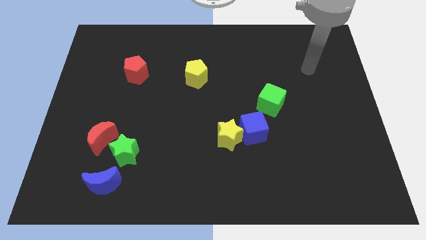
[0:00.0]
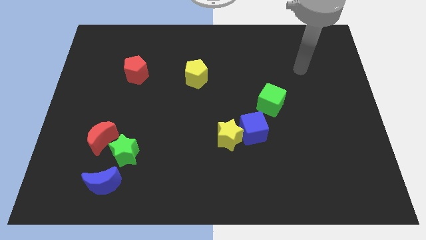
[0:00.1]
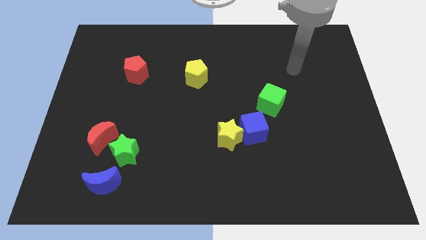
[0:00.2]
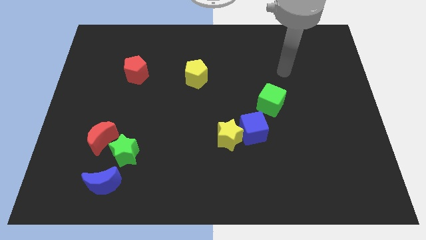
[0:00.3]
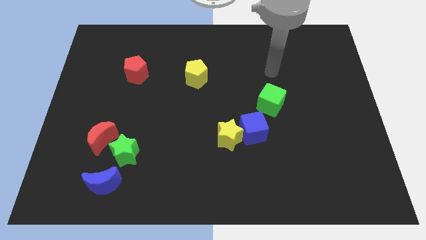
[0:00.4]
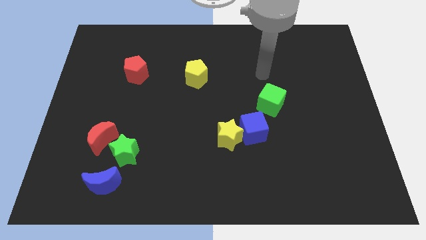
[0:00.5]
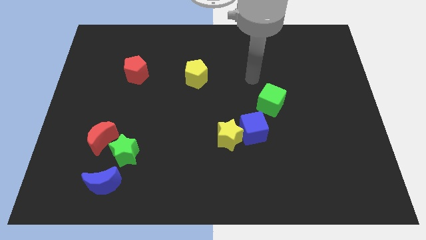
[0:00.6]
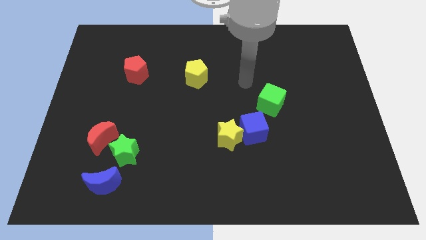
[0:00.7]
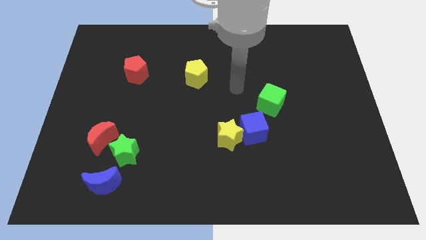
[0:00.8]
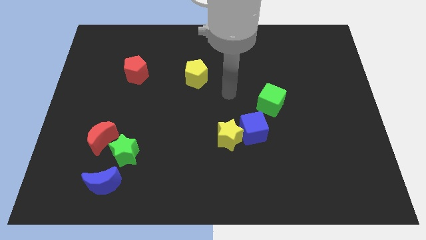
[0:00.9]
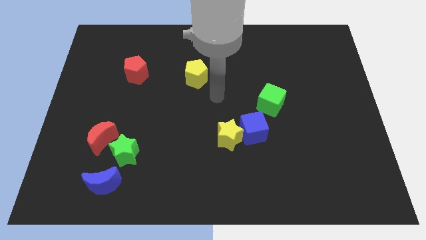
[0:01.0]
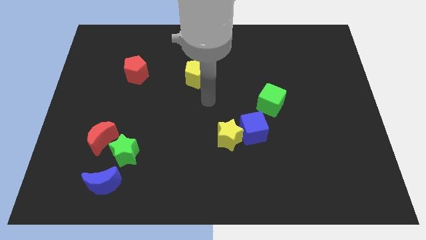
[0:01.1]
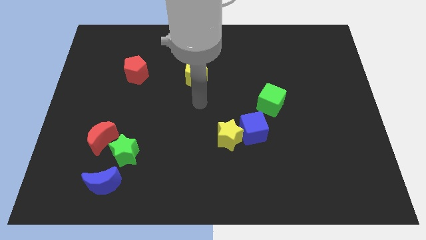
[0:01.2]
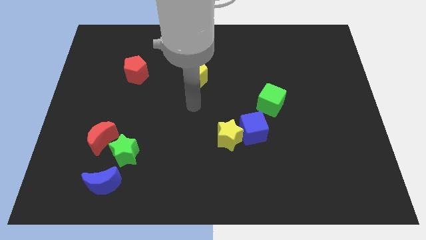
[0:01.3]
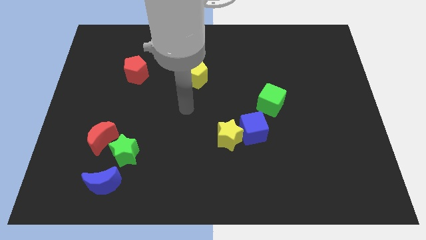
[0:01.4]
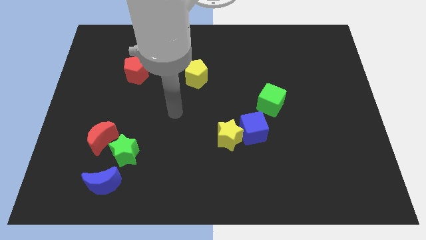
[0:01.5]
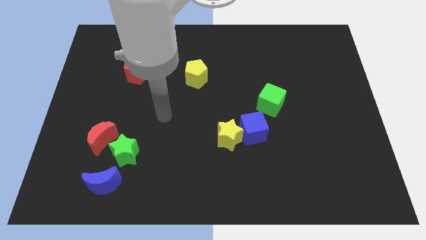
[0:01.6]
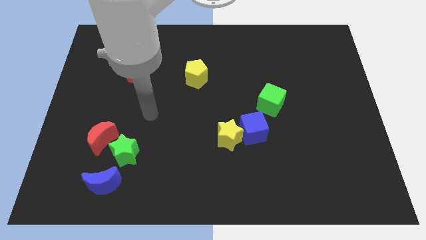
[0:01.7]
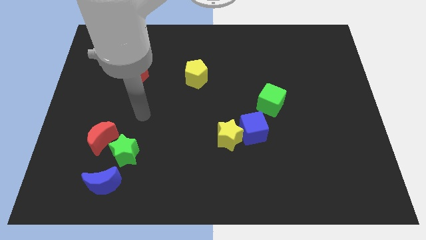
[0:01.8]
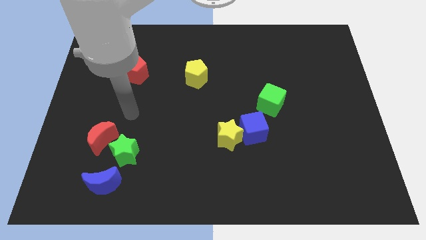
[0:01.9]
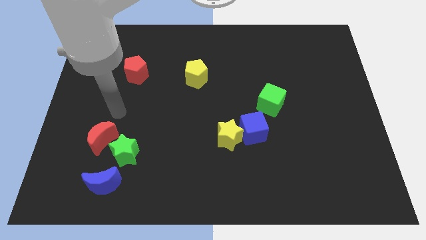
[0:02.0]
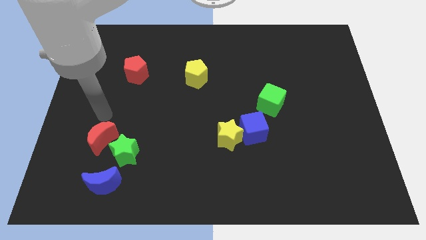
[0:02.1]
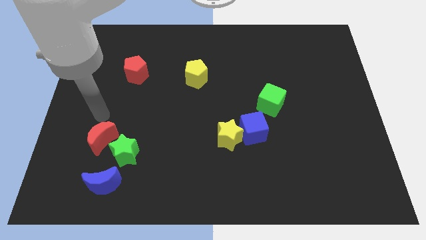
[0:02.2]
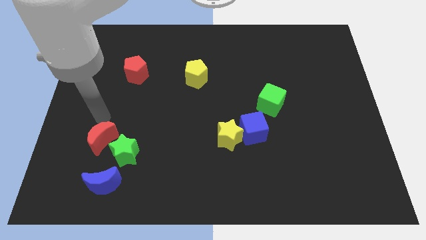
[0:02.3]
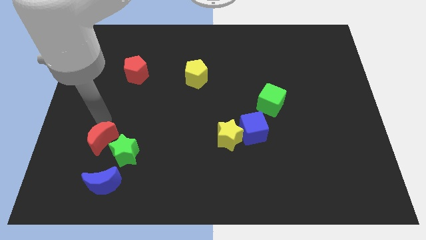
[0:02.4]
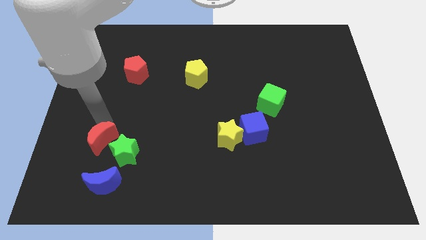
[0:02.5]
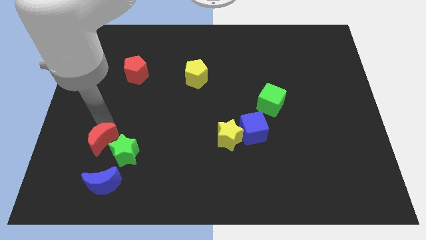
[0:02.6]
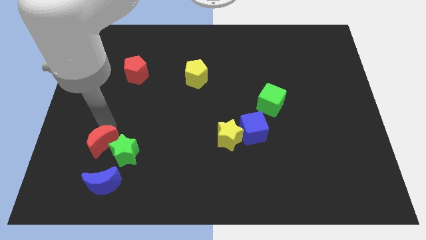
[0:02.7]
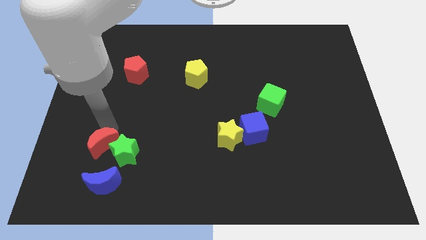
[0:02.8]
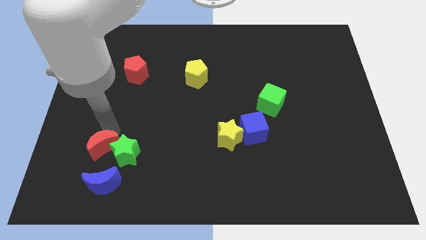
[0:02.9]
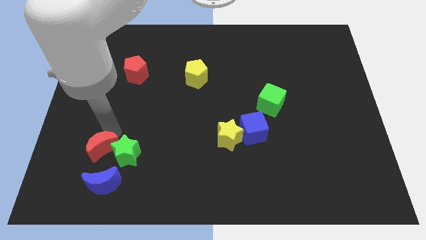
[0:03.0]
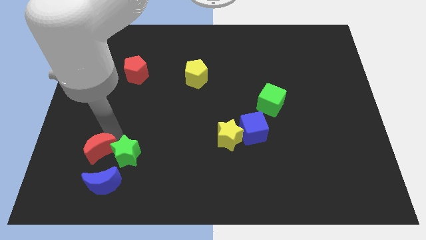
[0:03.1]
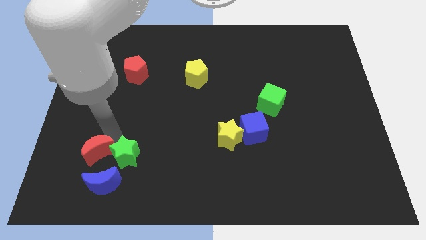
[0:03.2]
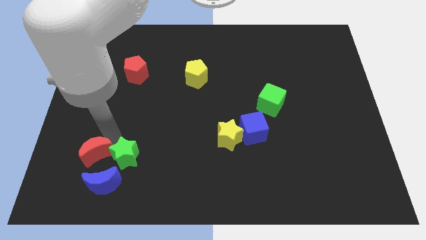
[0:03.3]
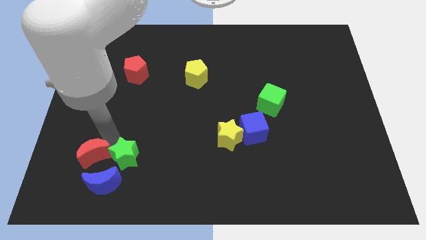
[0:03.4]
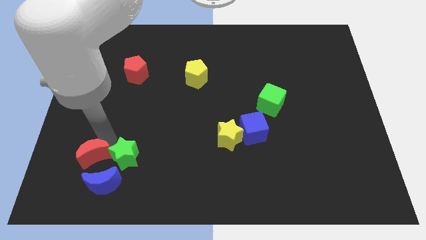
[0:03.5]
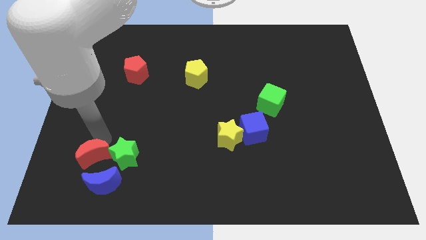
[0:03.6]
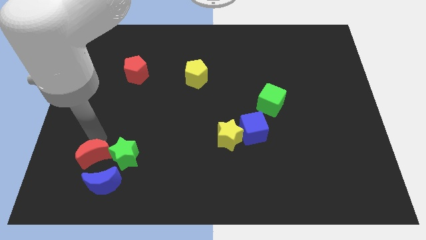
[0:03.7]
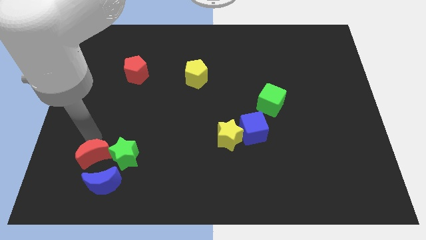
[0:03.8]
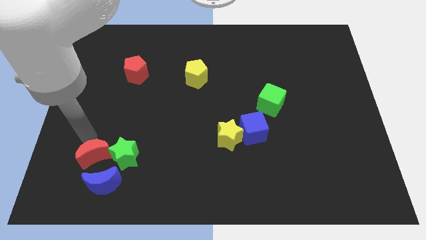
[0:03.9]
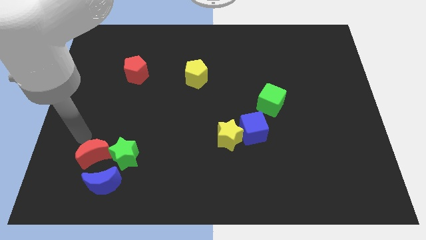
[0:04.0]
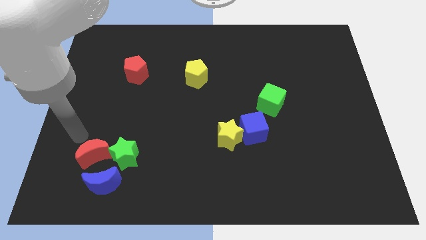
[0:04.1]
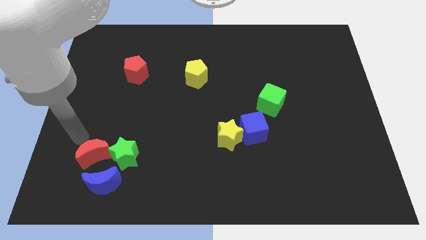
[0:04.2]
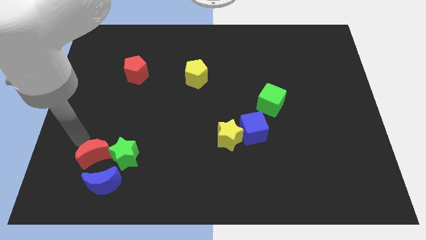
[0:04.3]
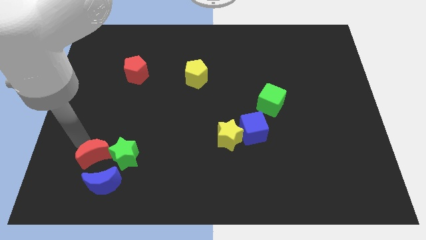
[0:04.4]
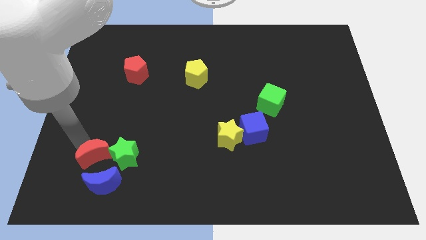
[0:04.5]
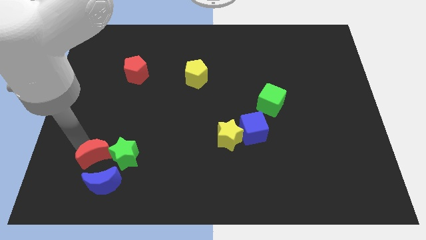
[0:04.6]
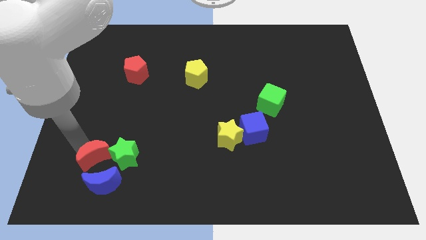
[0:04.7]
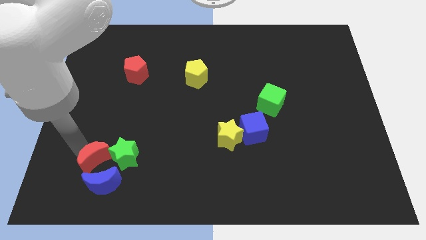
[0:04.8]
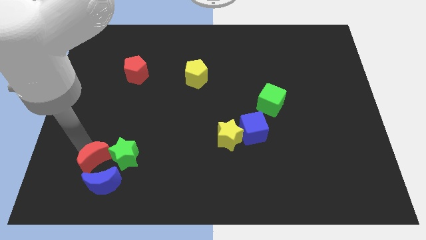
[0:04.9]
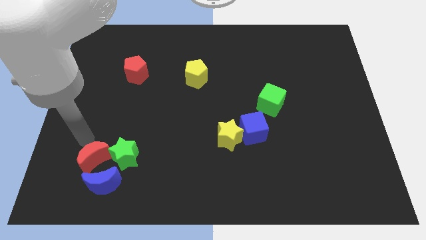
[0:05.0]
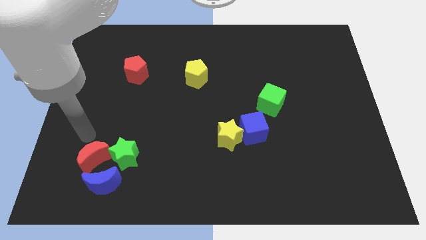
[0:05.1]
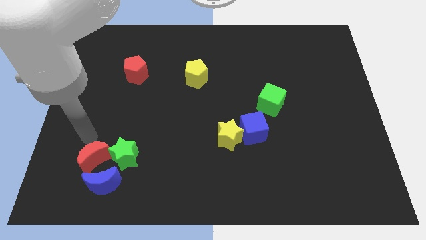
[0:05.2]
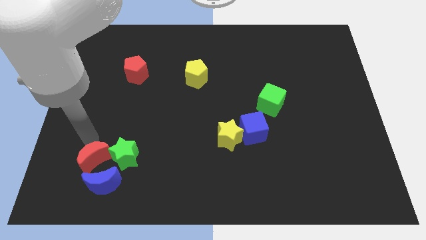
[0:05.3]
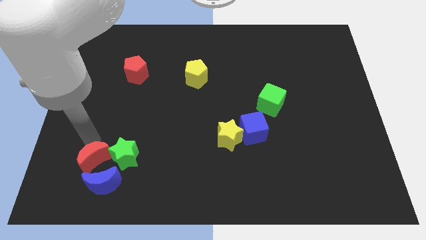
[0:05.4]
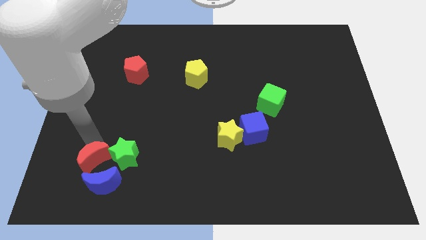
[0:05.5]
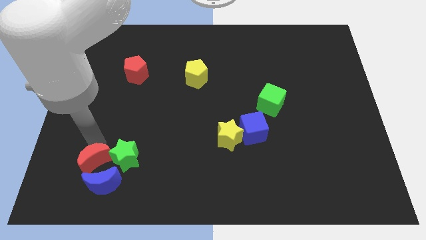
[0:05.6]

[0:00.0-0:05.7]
move the red moon towards the blue moon

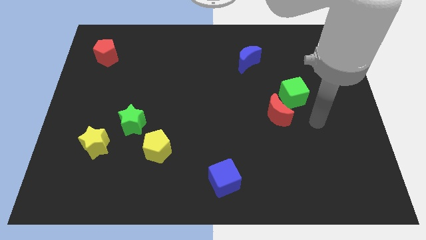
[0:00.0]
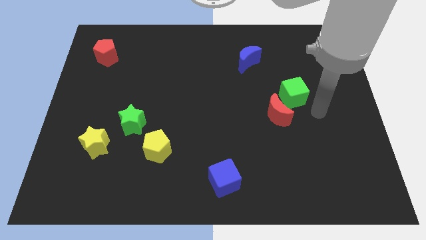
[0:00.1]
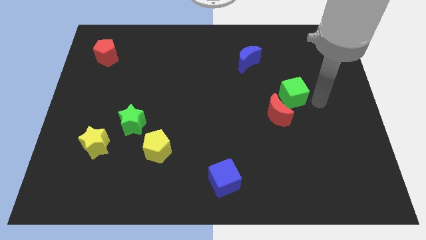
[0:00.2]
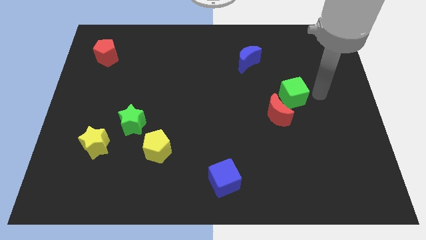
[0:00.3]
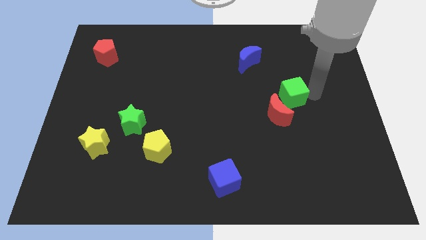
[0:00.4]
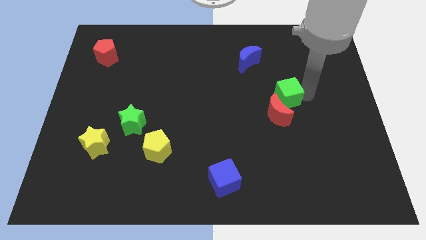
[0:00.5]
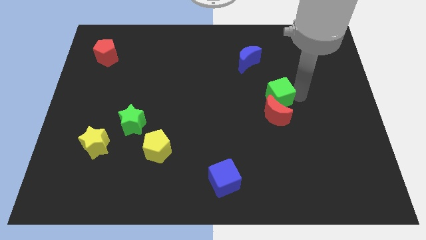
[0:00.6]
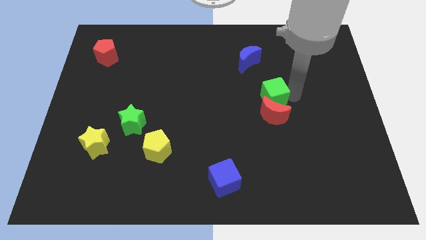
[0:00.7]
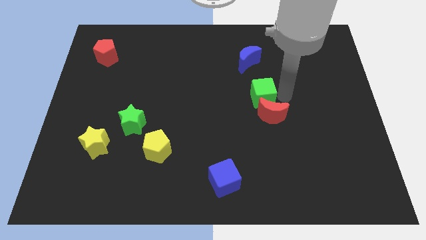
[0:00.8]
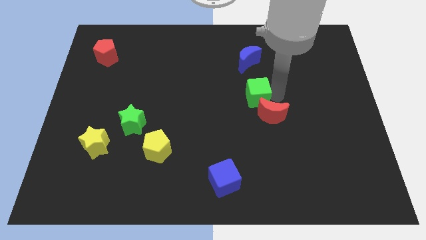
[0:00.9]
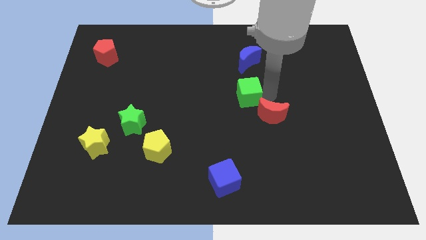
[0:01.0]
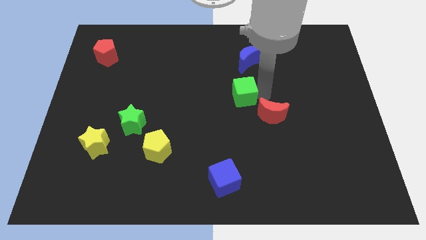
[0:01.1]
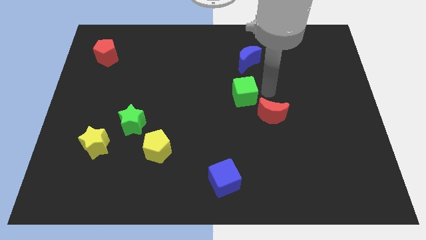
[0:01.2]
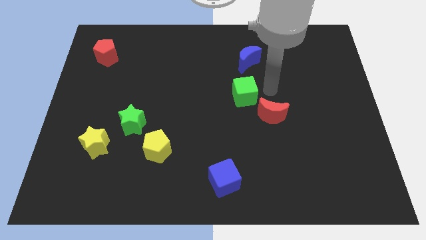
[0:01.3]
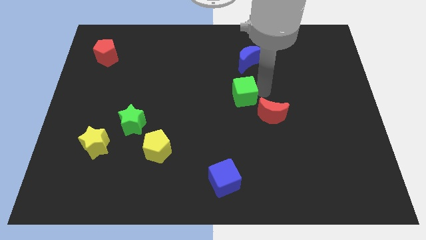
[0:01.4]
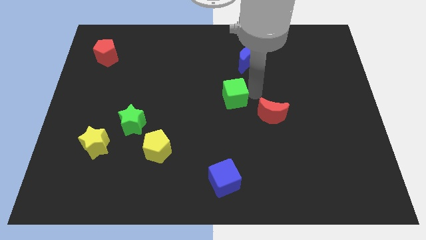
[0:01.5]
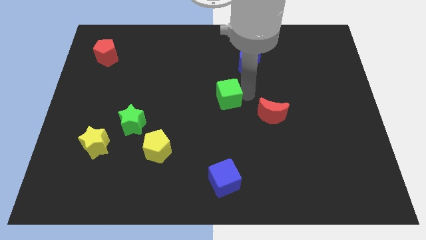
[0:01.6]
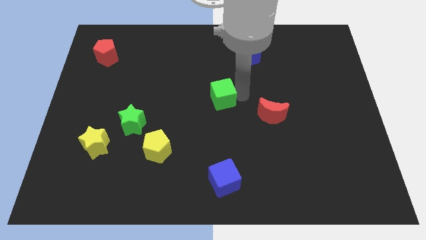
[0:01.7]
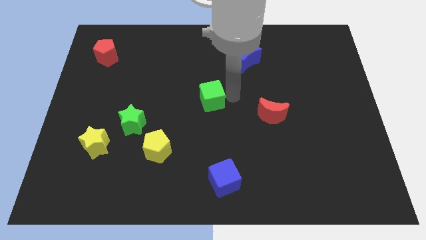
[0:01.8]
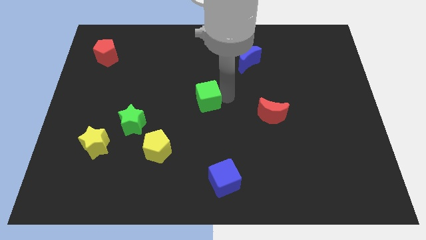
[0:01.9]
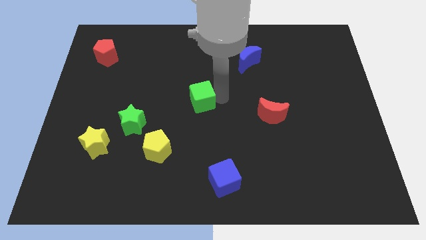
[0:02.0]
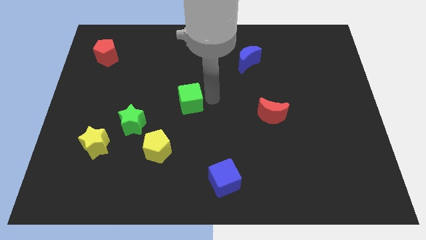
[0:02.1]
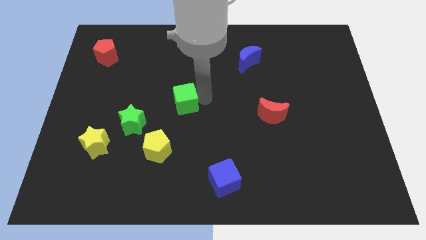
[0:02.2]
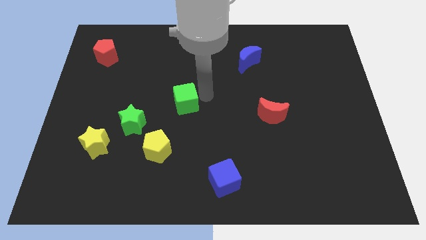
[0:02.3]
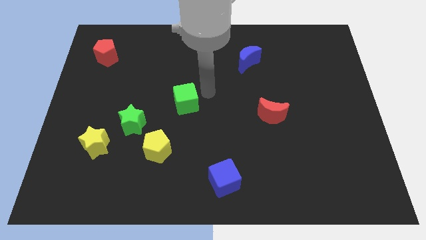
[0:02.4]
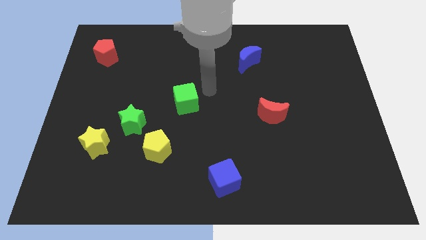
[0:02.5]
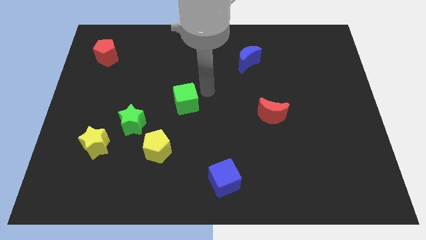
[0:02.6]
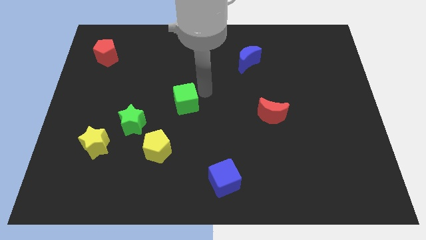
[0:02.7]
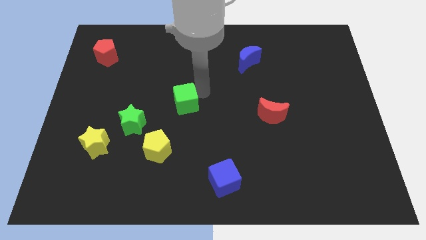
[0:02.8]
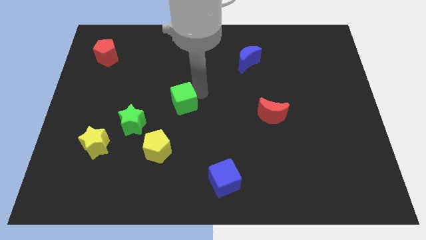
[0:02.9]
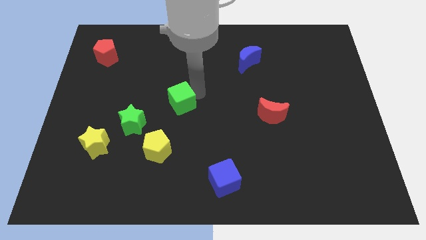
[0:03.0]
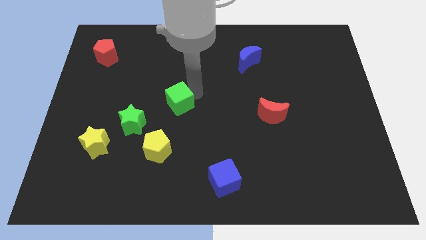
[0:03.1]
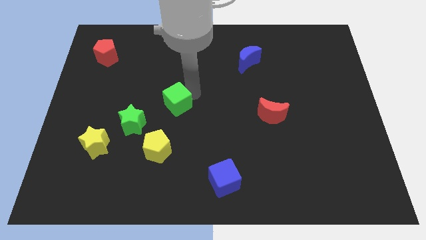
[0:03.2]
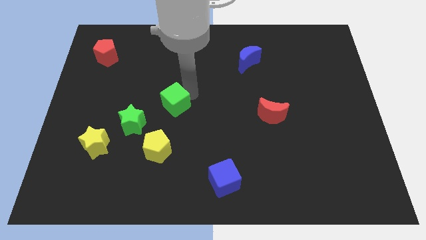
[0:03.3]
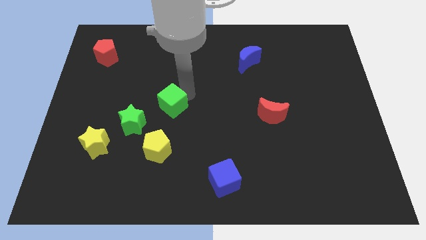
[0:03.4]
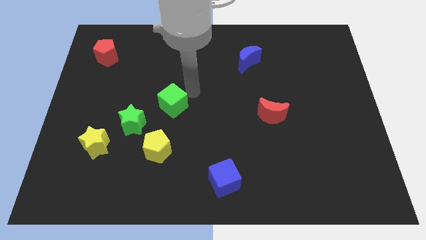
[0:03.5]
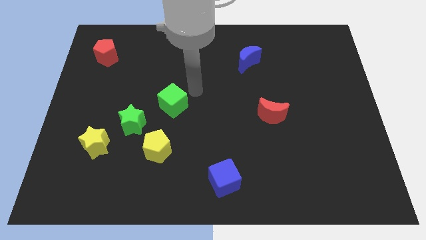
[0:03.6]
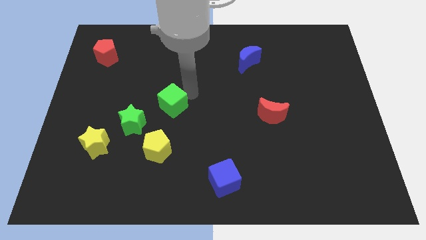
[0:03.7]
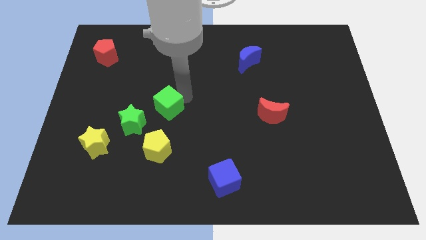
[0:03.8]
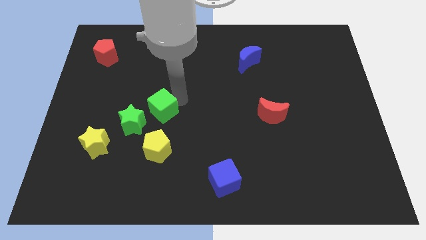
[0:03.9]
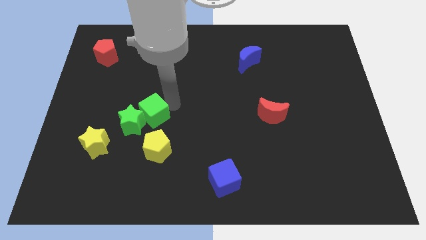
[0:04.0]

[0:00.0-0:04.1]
put the green cube to the green star
